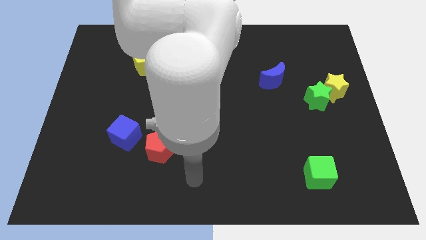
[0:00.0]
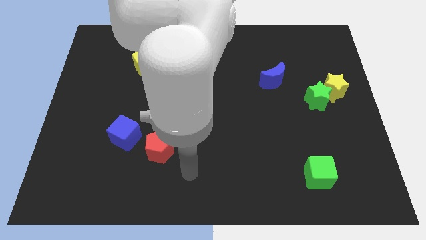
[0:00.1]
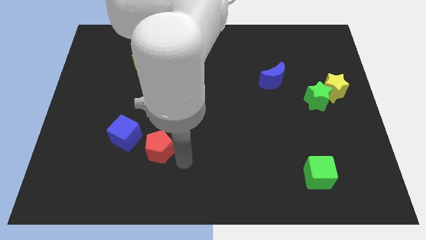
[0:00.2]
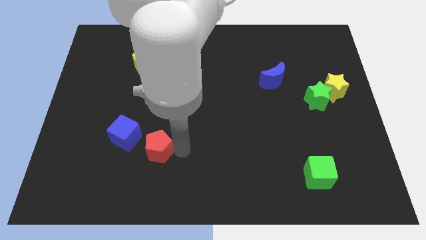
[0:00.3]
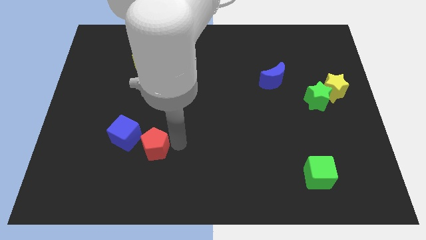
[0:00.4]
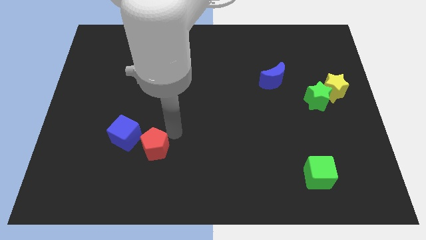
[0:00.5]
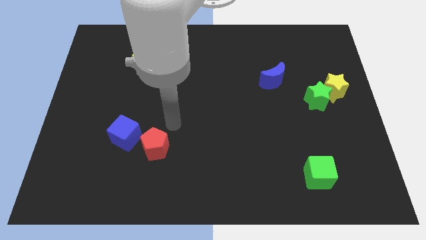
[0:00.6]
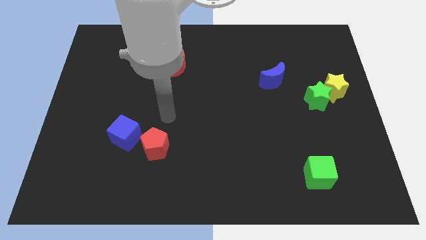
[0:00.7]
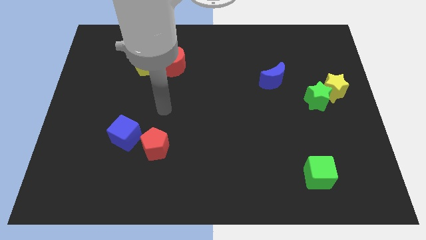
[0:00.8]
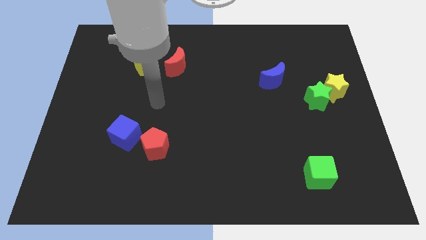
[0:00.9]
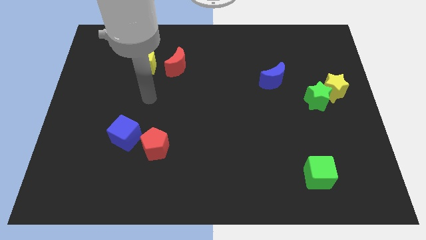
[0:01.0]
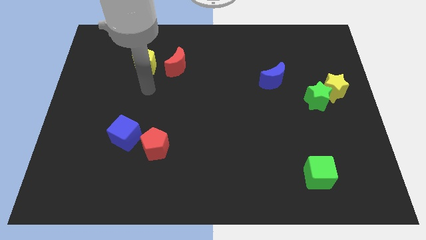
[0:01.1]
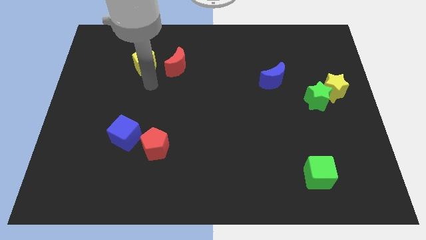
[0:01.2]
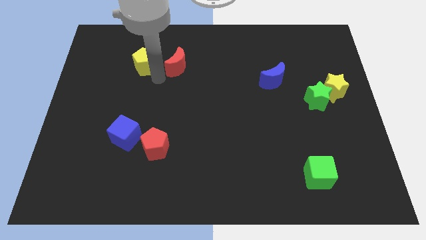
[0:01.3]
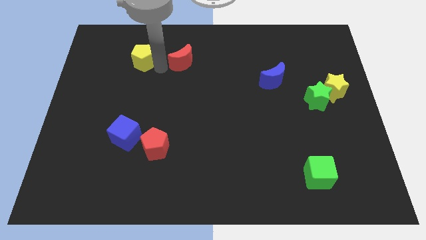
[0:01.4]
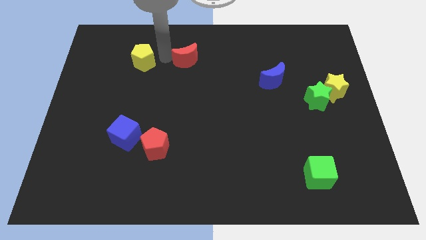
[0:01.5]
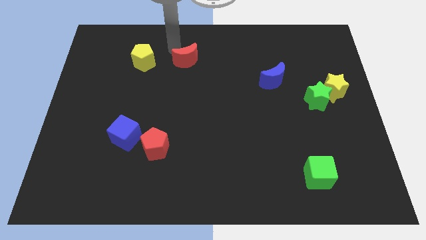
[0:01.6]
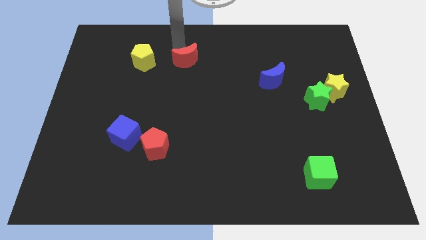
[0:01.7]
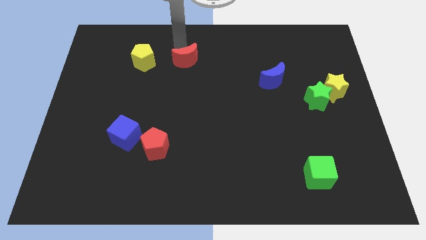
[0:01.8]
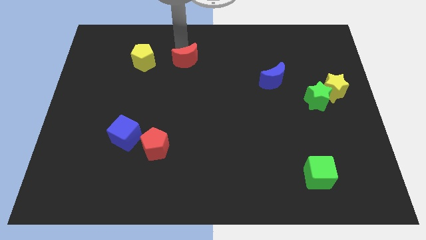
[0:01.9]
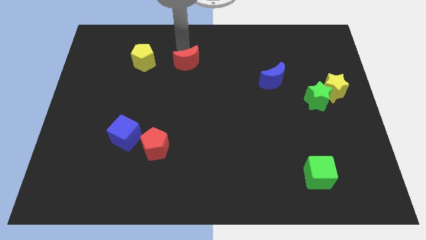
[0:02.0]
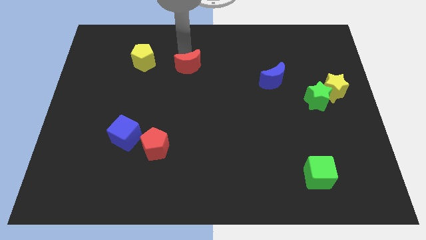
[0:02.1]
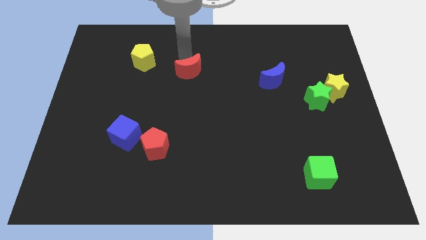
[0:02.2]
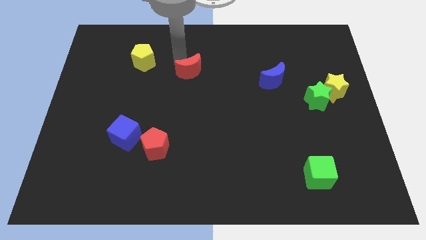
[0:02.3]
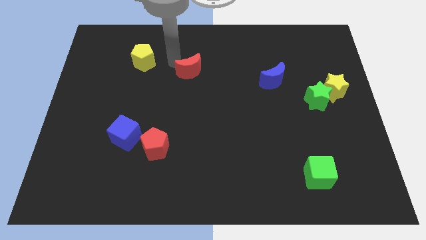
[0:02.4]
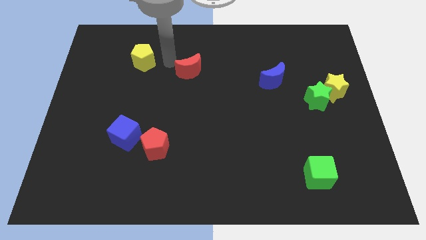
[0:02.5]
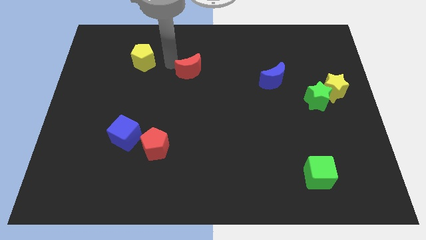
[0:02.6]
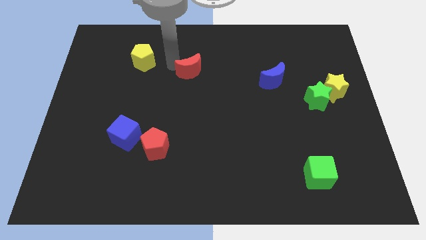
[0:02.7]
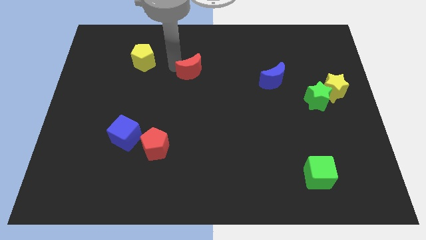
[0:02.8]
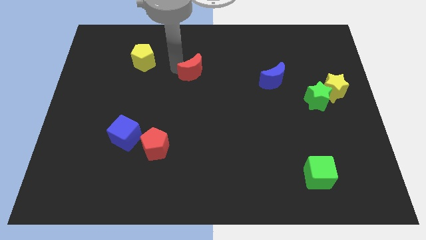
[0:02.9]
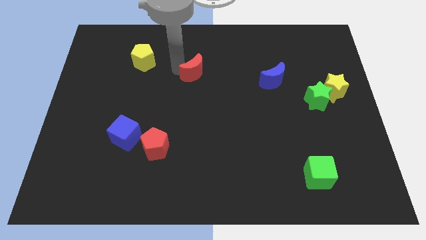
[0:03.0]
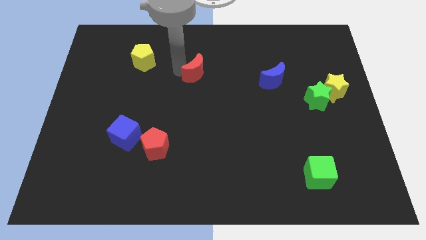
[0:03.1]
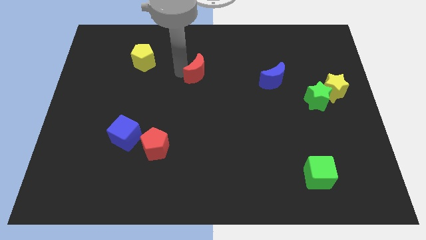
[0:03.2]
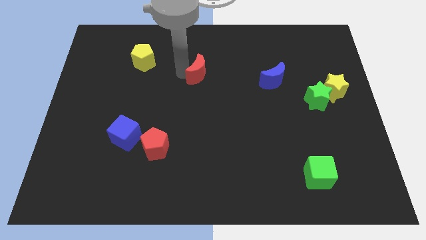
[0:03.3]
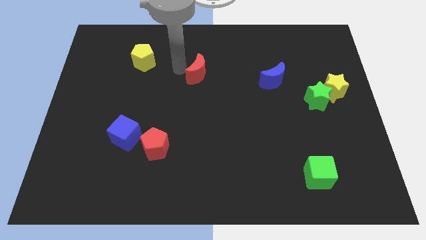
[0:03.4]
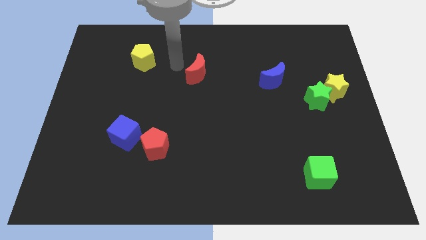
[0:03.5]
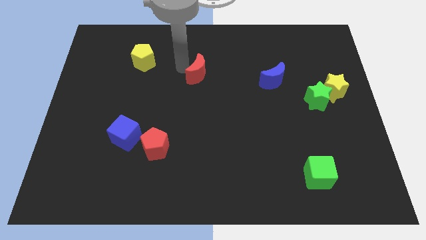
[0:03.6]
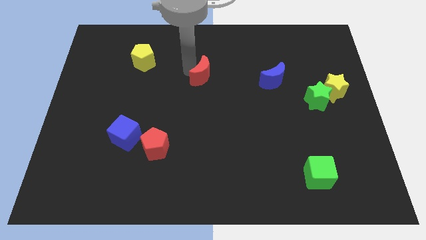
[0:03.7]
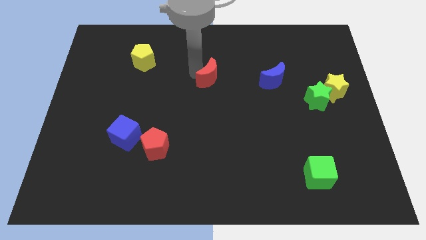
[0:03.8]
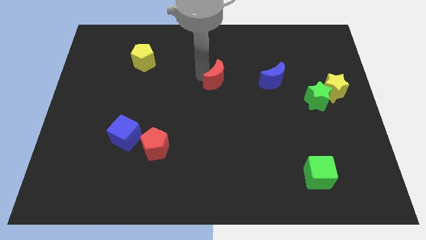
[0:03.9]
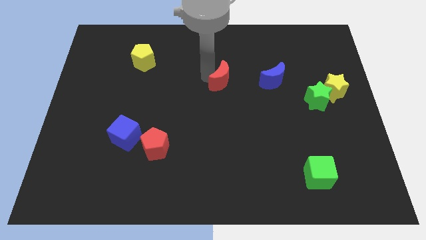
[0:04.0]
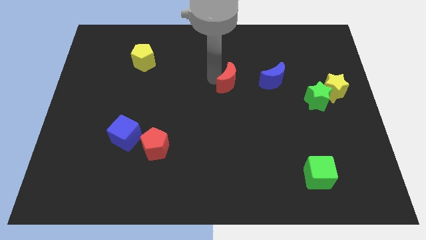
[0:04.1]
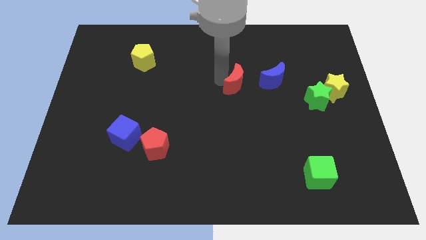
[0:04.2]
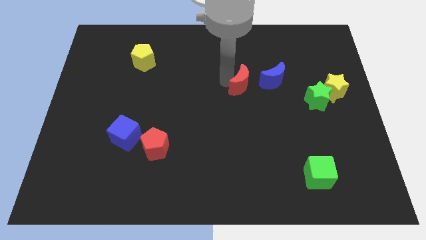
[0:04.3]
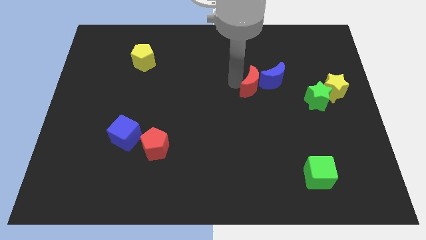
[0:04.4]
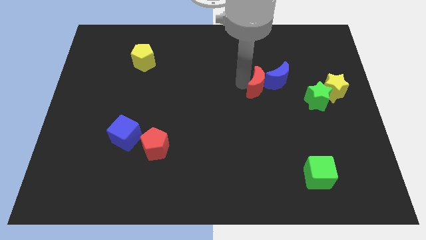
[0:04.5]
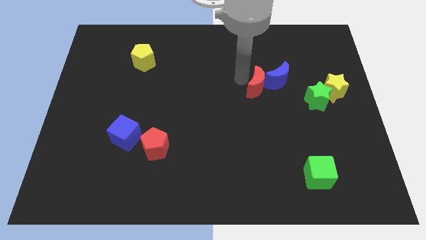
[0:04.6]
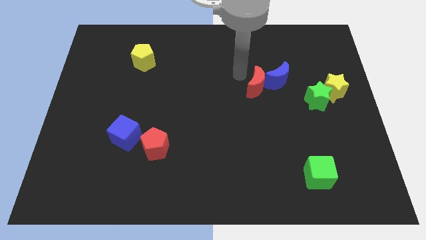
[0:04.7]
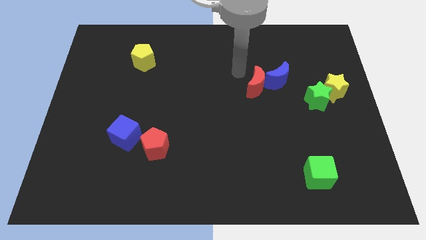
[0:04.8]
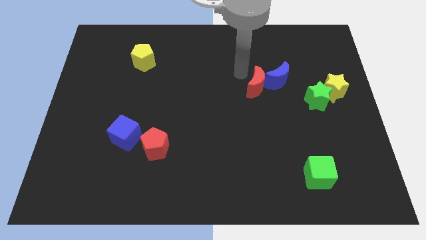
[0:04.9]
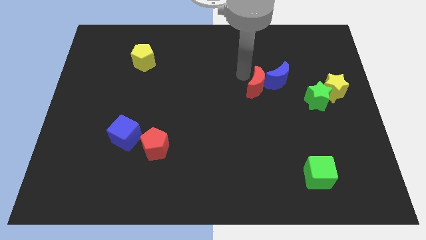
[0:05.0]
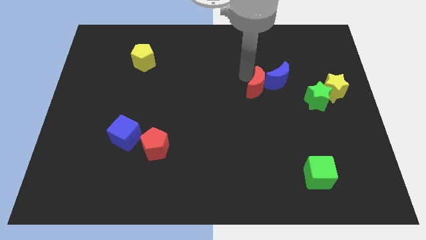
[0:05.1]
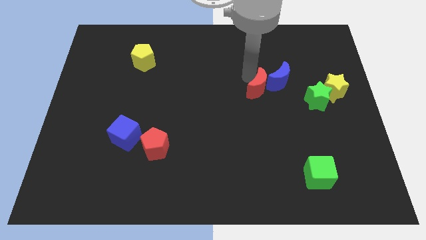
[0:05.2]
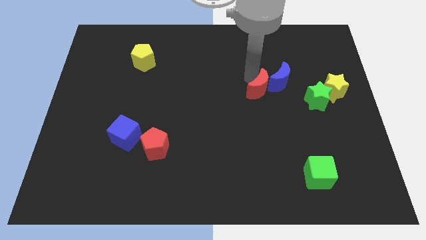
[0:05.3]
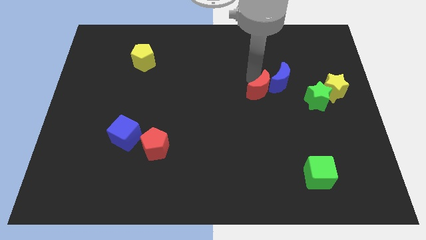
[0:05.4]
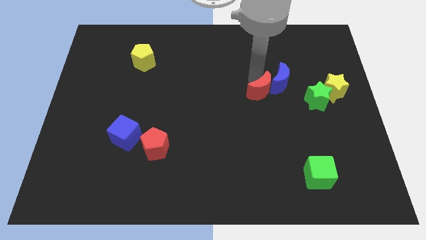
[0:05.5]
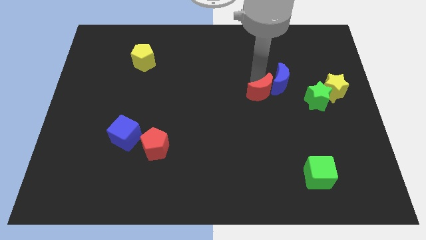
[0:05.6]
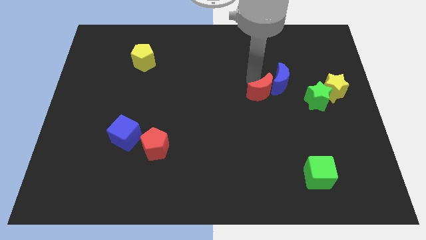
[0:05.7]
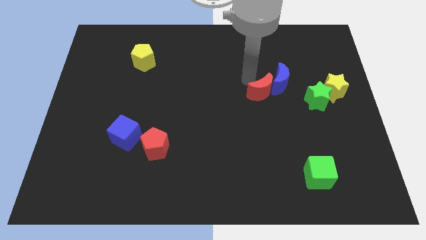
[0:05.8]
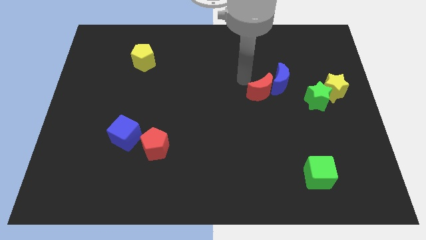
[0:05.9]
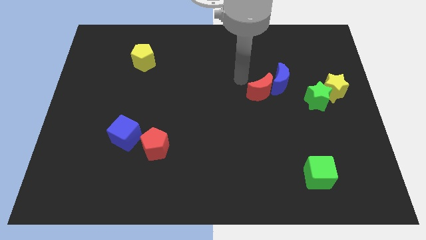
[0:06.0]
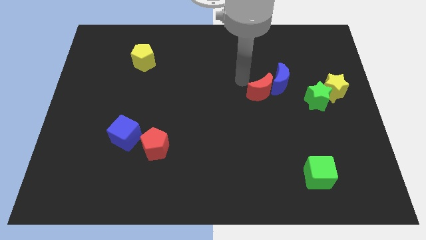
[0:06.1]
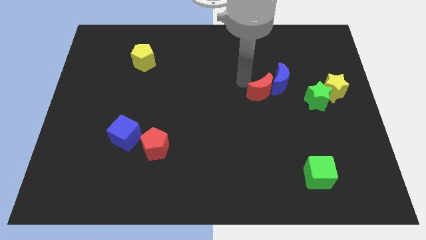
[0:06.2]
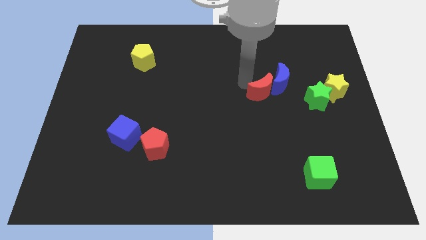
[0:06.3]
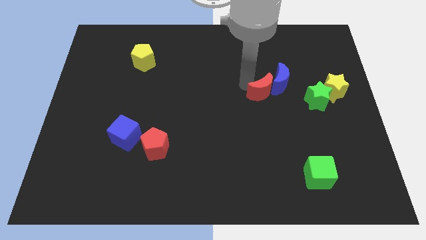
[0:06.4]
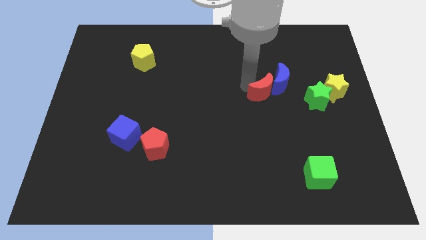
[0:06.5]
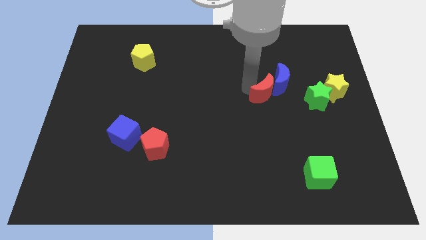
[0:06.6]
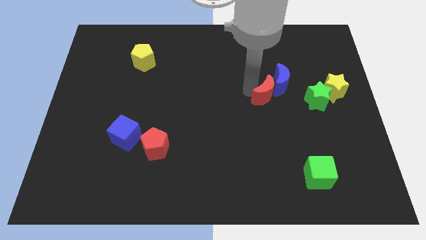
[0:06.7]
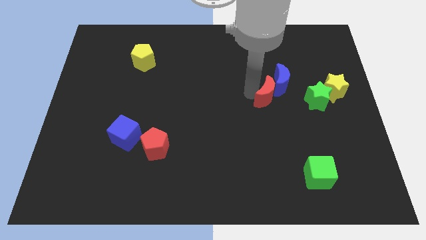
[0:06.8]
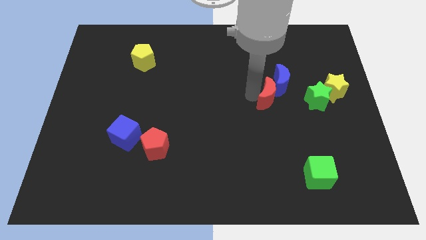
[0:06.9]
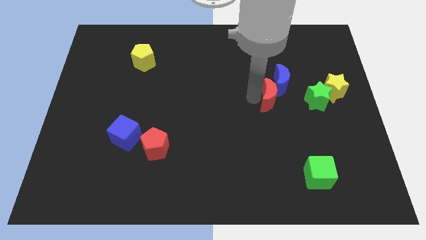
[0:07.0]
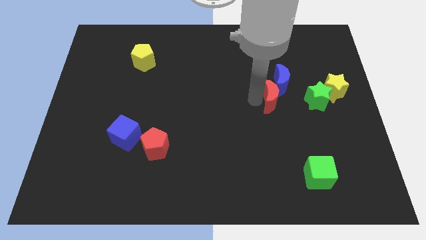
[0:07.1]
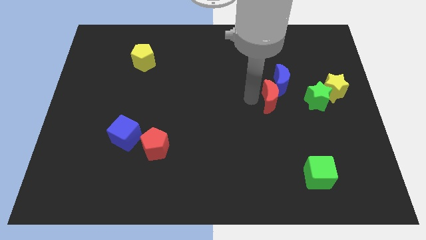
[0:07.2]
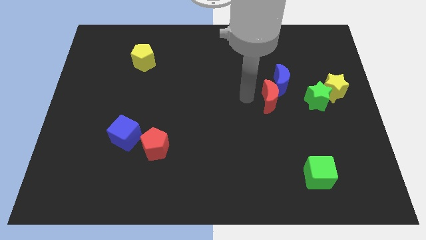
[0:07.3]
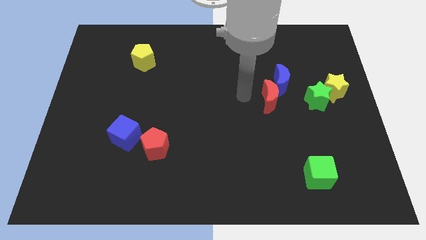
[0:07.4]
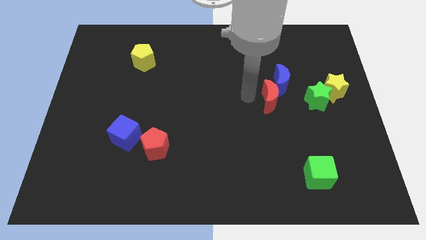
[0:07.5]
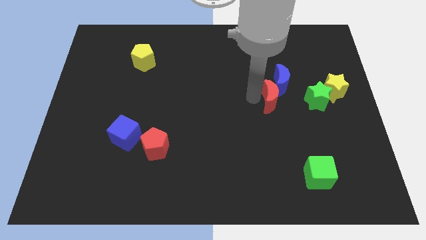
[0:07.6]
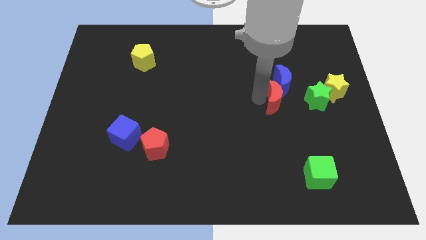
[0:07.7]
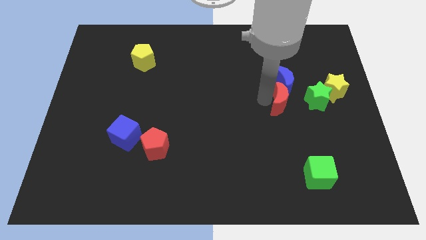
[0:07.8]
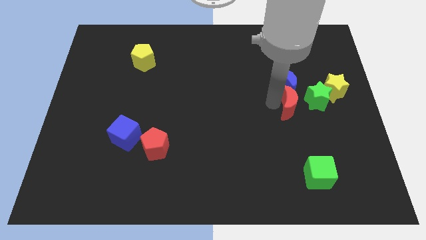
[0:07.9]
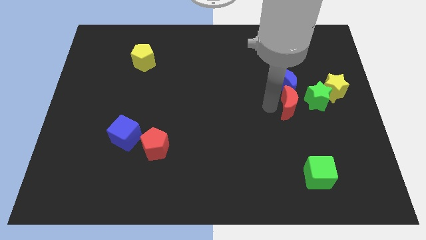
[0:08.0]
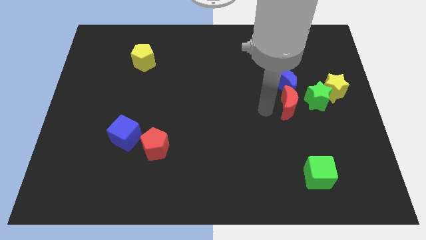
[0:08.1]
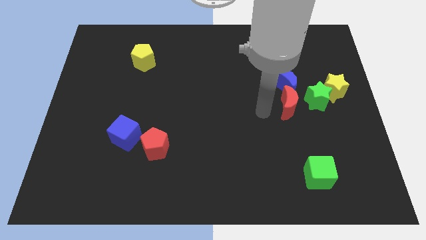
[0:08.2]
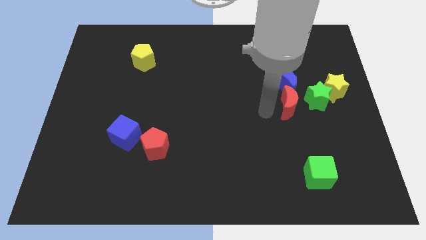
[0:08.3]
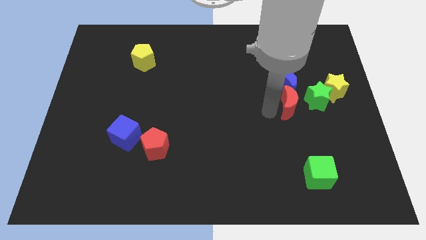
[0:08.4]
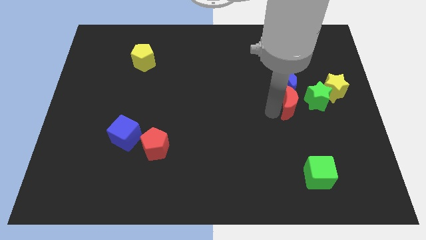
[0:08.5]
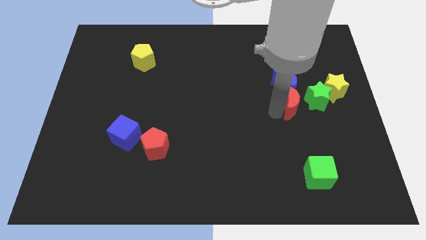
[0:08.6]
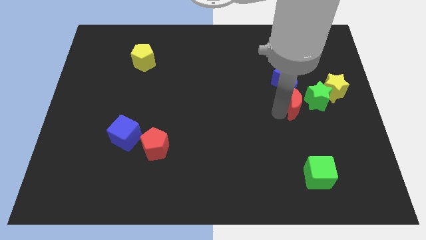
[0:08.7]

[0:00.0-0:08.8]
push the red moon next to the green star
